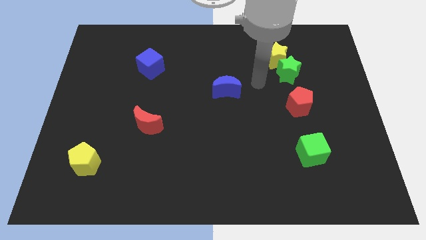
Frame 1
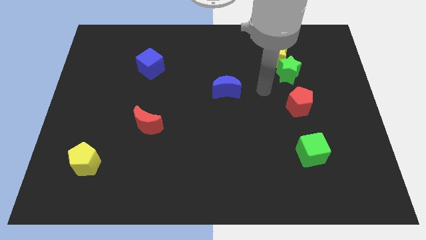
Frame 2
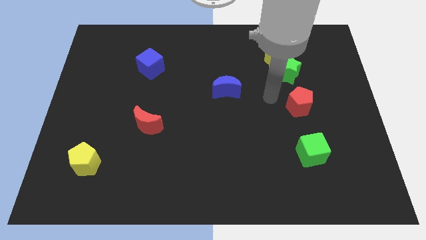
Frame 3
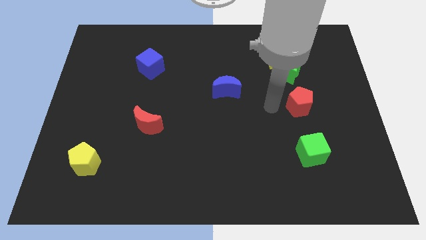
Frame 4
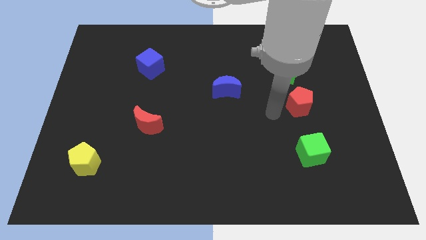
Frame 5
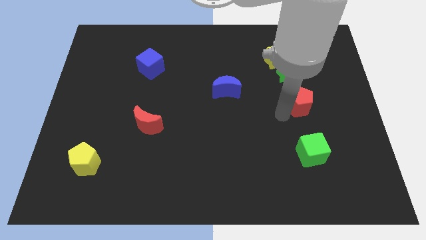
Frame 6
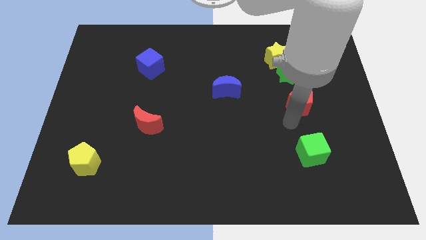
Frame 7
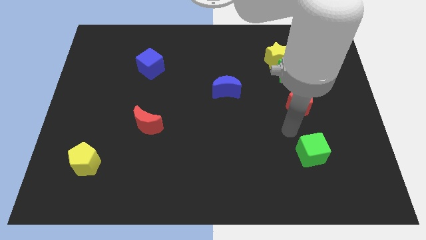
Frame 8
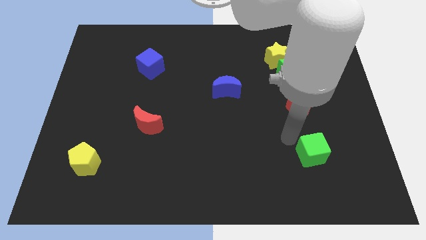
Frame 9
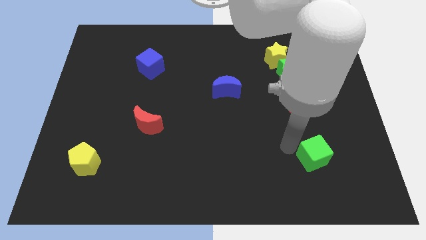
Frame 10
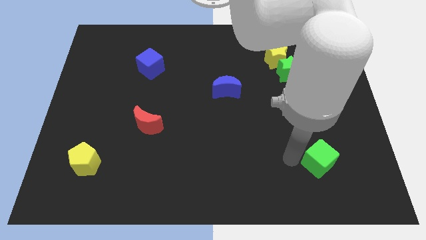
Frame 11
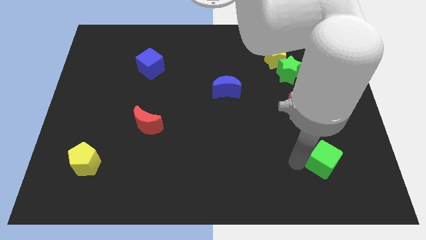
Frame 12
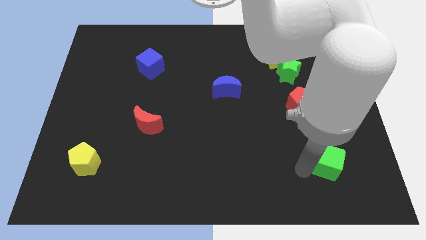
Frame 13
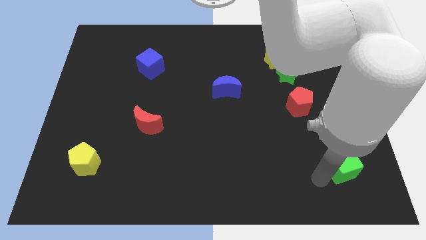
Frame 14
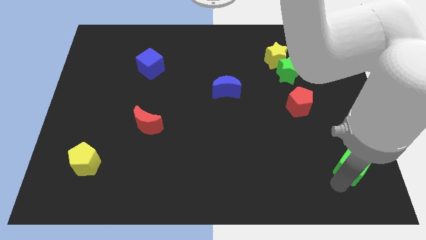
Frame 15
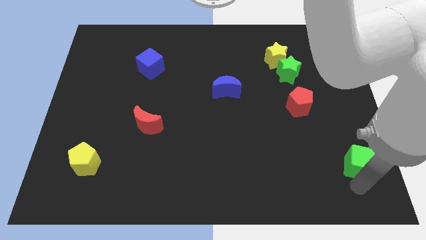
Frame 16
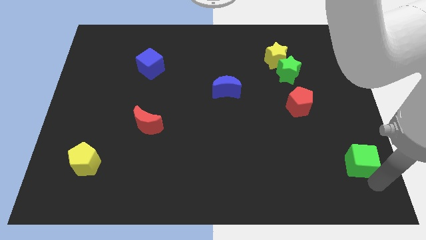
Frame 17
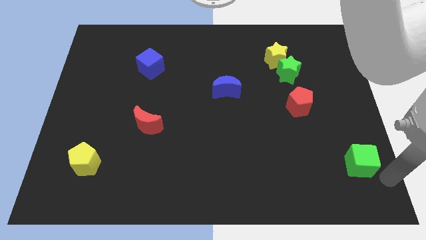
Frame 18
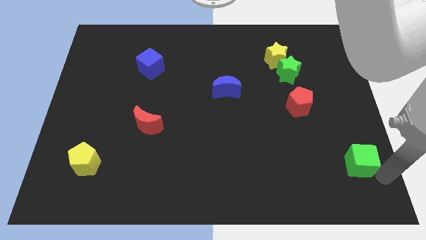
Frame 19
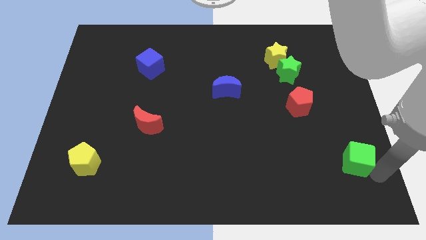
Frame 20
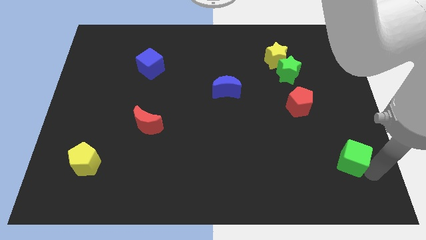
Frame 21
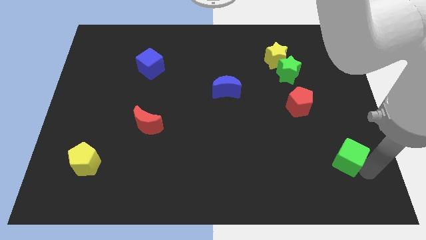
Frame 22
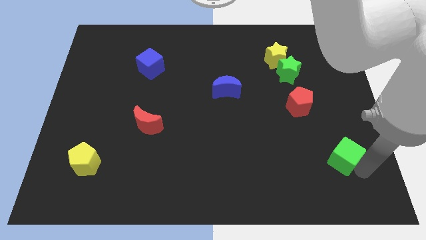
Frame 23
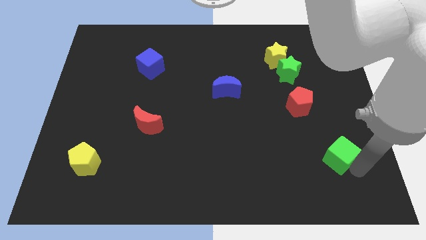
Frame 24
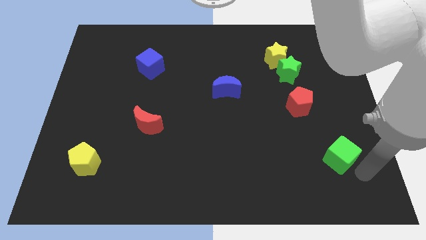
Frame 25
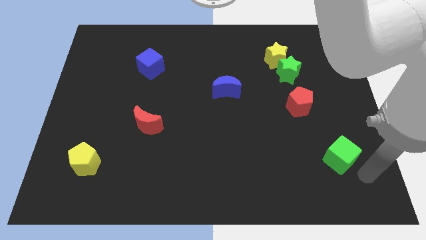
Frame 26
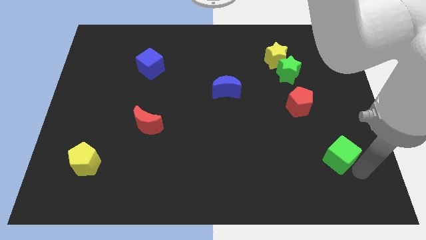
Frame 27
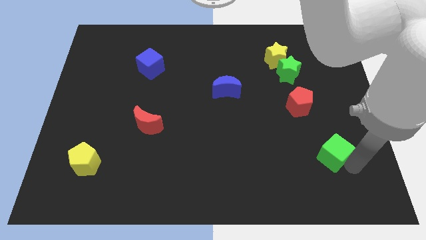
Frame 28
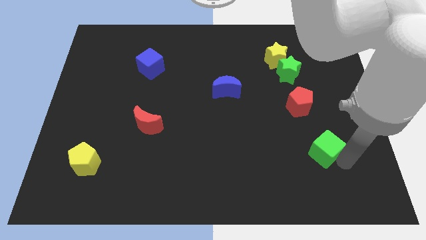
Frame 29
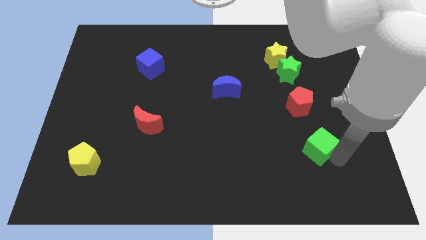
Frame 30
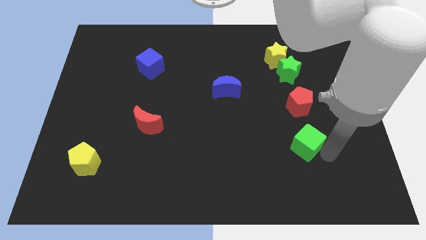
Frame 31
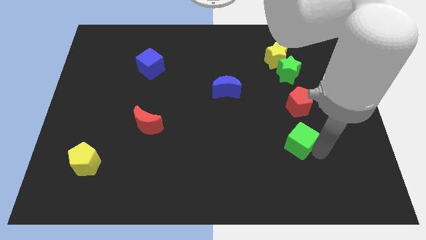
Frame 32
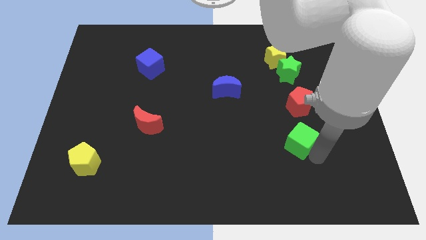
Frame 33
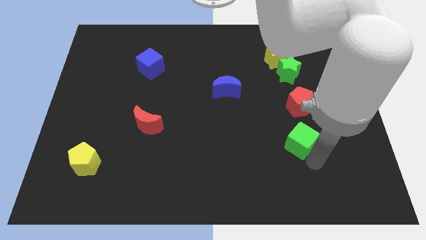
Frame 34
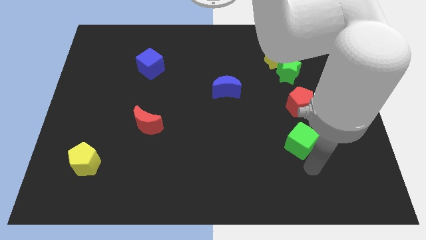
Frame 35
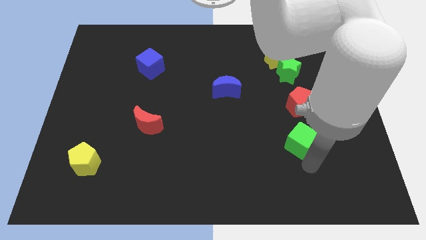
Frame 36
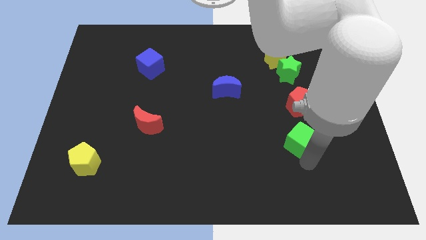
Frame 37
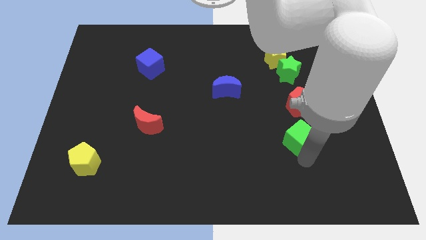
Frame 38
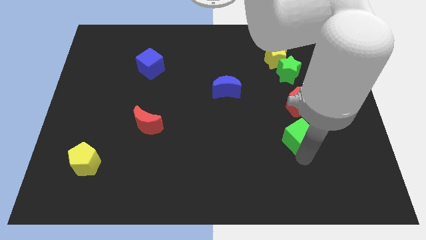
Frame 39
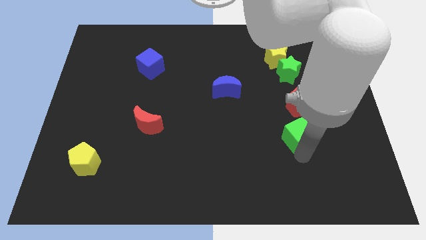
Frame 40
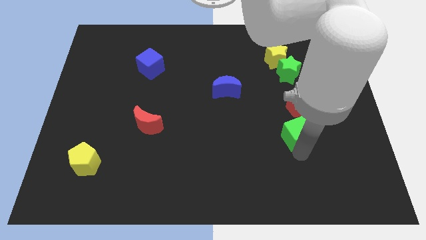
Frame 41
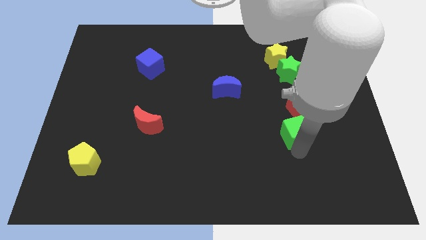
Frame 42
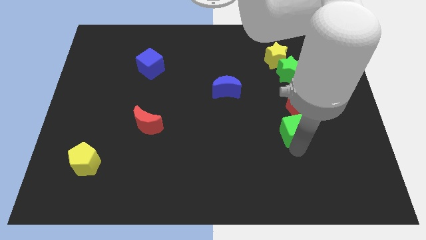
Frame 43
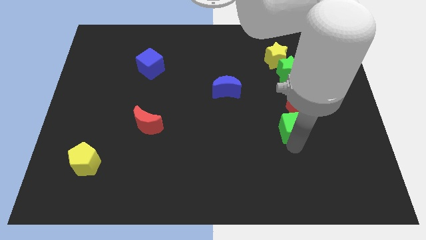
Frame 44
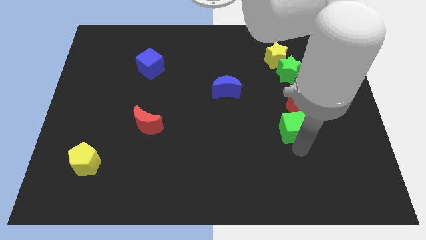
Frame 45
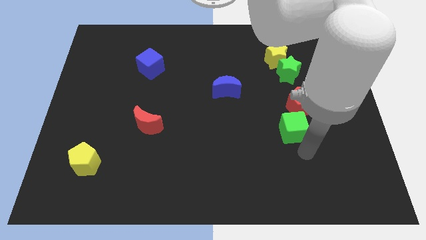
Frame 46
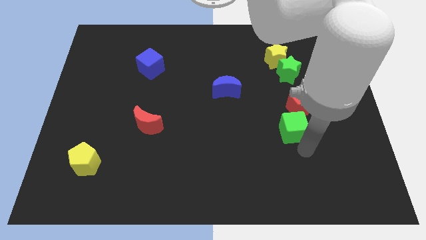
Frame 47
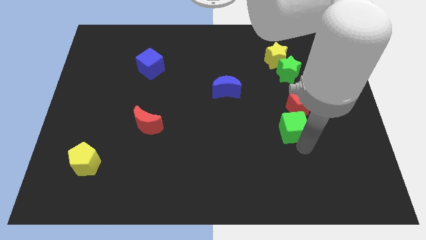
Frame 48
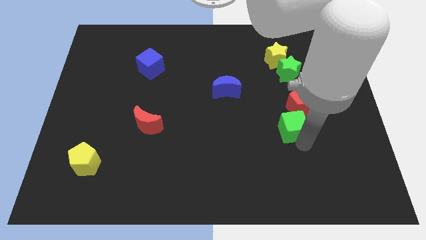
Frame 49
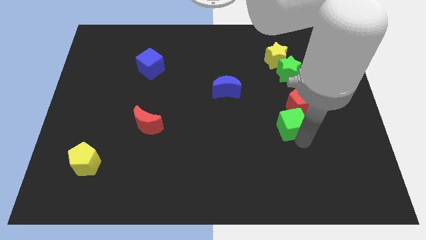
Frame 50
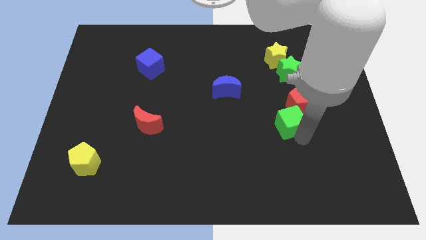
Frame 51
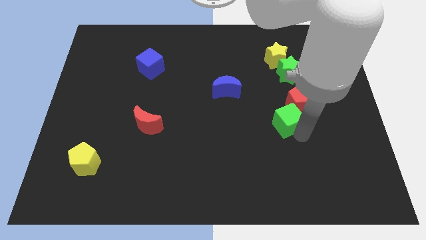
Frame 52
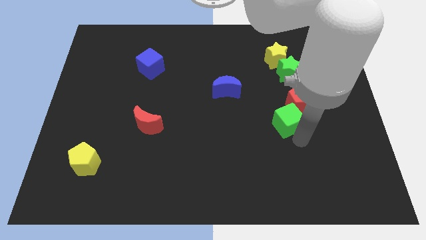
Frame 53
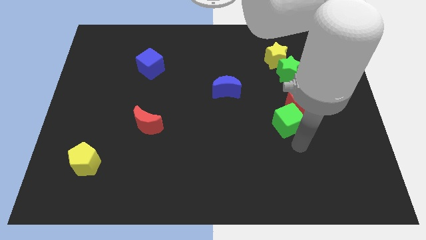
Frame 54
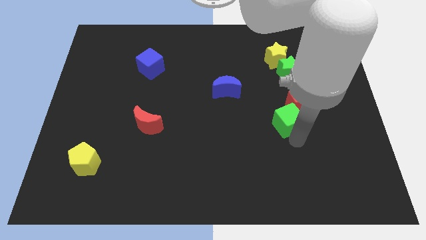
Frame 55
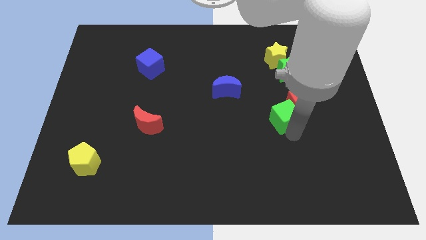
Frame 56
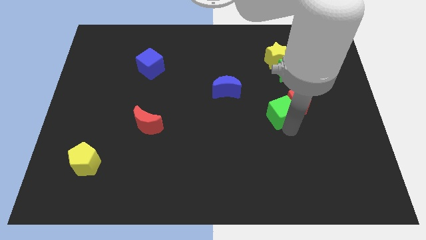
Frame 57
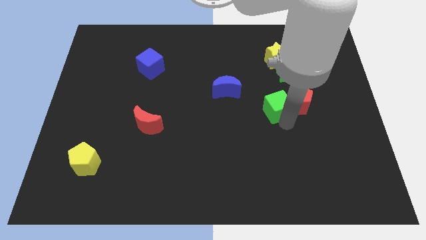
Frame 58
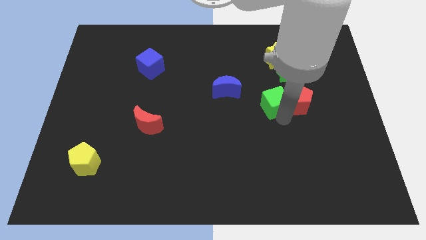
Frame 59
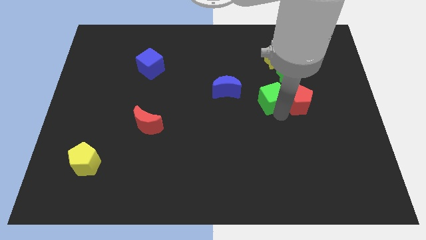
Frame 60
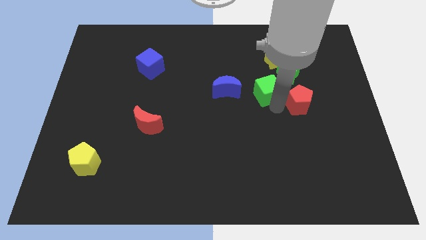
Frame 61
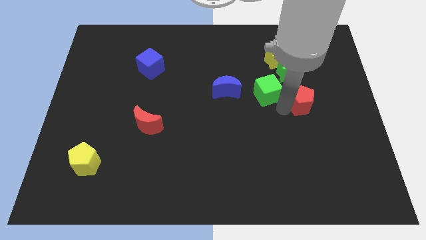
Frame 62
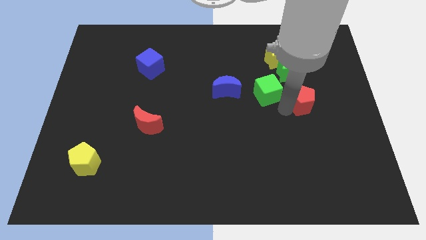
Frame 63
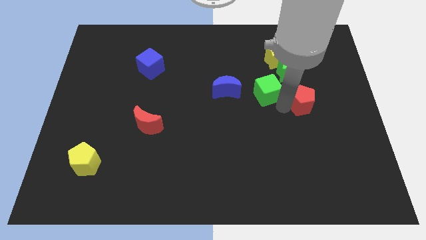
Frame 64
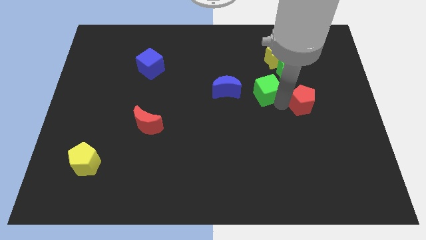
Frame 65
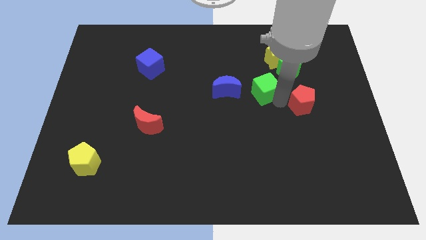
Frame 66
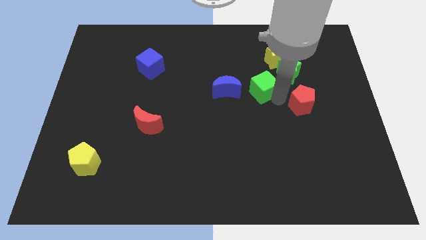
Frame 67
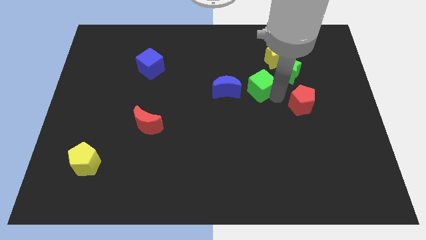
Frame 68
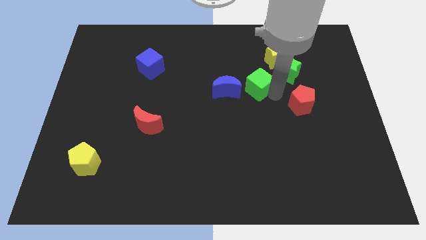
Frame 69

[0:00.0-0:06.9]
push the green cube to the top right of the blue moon
